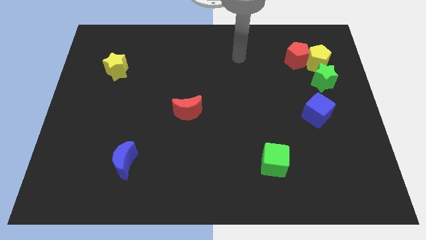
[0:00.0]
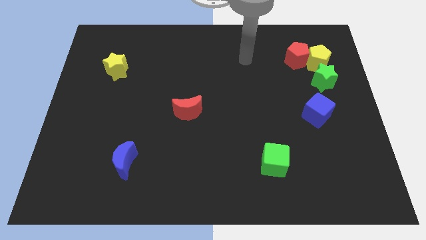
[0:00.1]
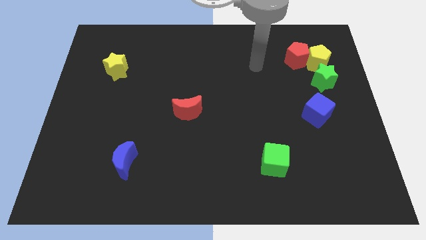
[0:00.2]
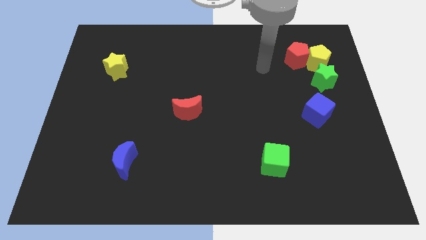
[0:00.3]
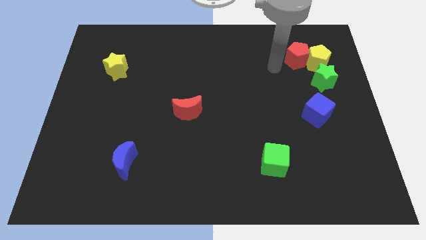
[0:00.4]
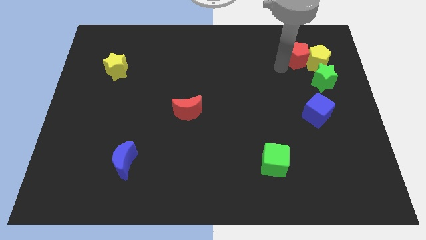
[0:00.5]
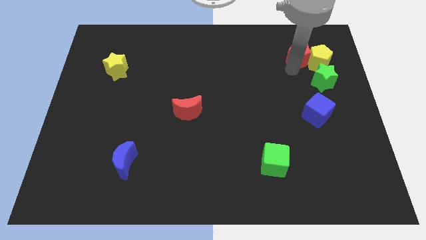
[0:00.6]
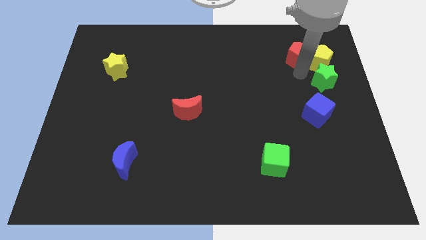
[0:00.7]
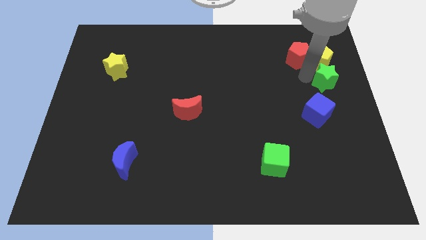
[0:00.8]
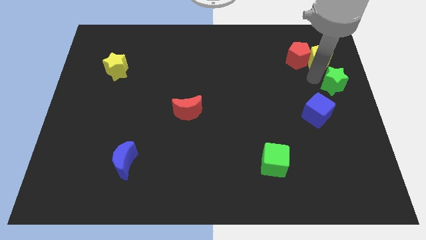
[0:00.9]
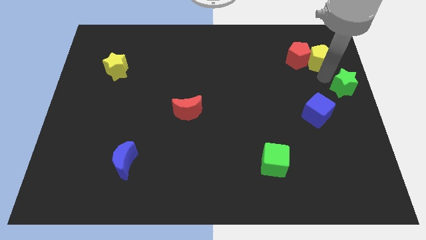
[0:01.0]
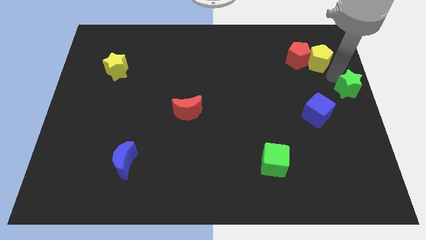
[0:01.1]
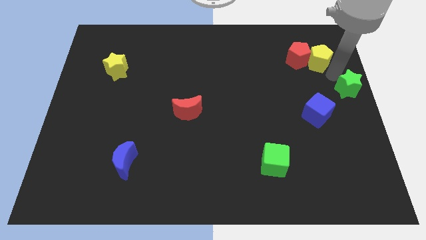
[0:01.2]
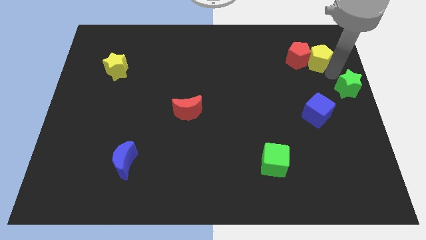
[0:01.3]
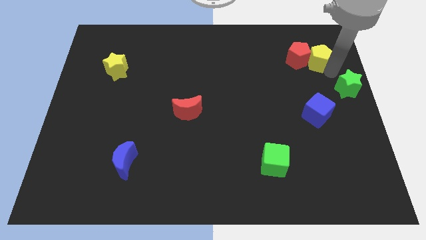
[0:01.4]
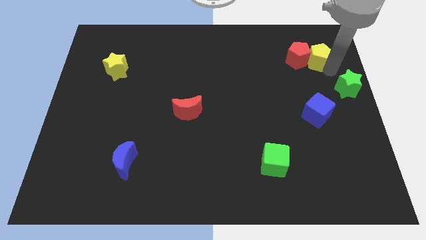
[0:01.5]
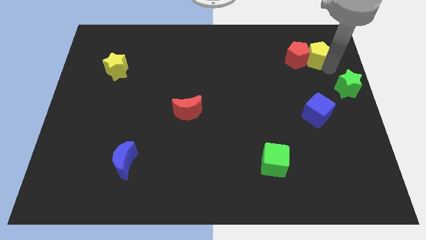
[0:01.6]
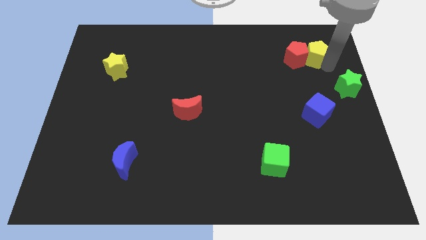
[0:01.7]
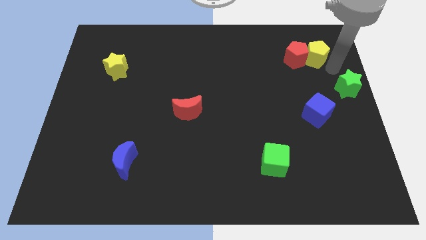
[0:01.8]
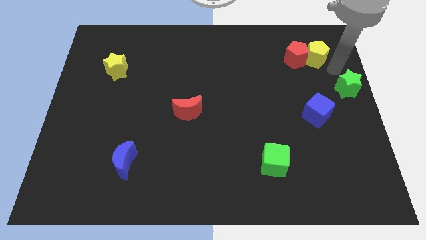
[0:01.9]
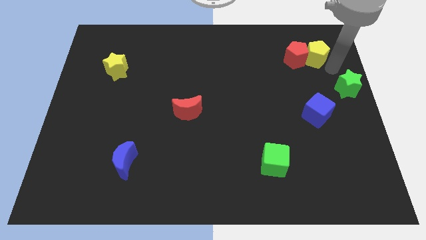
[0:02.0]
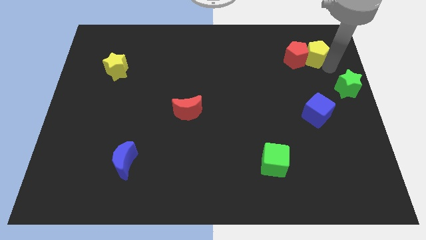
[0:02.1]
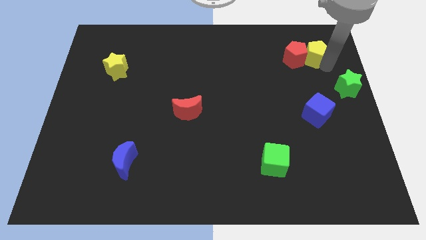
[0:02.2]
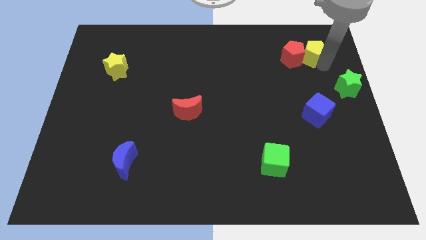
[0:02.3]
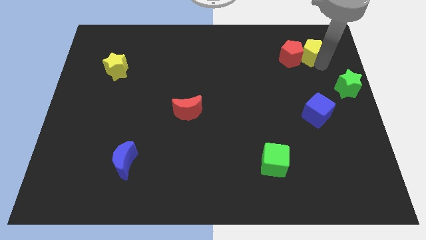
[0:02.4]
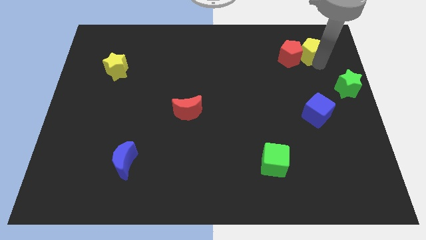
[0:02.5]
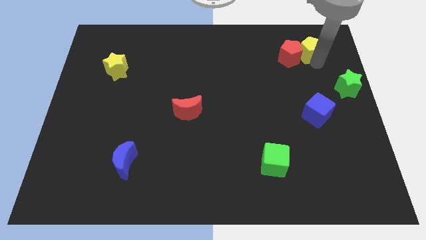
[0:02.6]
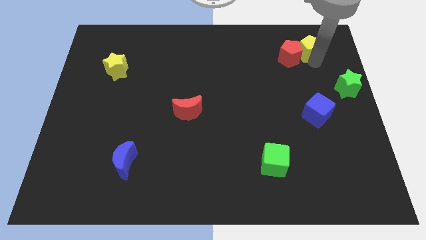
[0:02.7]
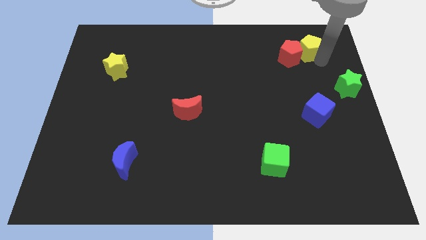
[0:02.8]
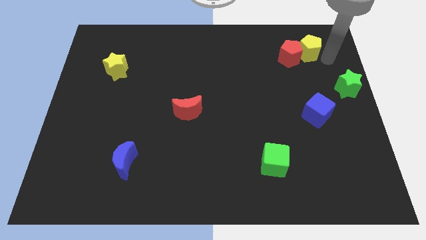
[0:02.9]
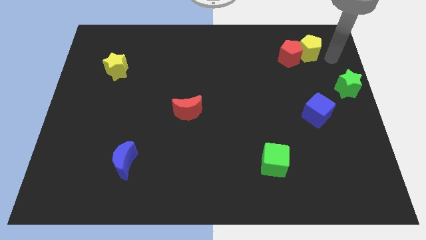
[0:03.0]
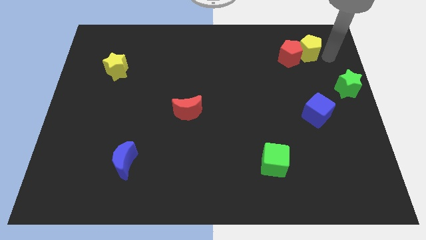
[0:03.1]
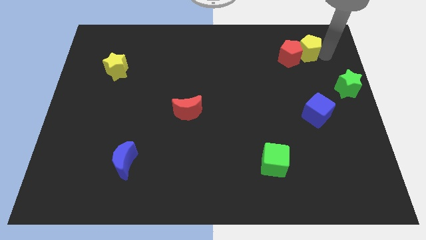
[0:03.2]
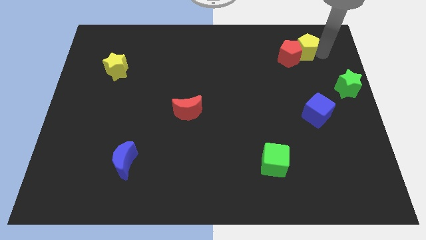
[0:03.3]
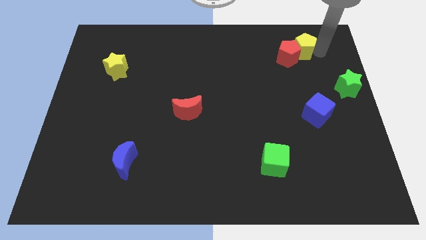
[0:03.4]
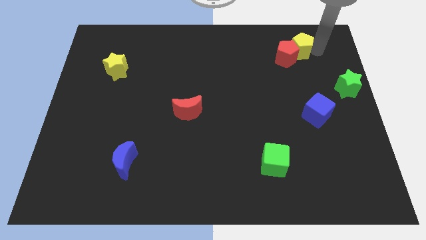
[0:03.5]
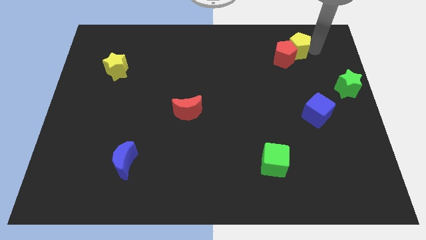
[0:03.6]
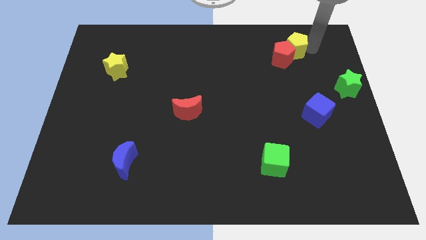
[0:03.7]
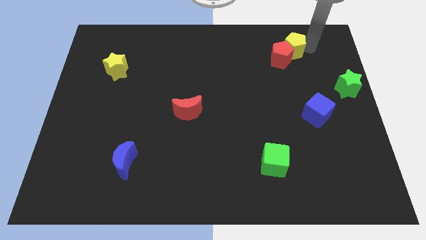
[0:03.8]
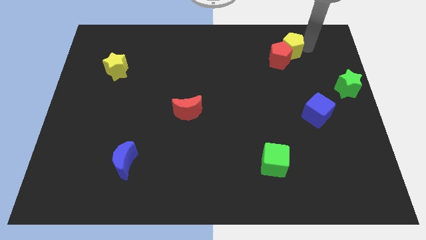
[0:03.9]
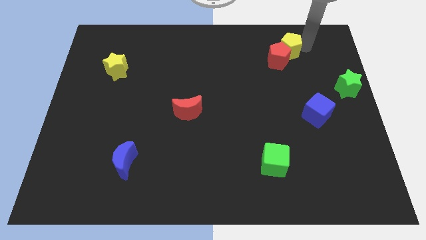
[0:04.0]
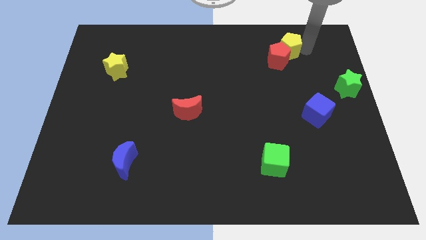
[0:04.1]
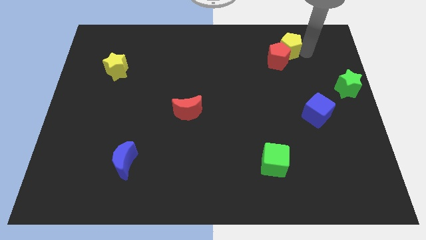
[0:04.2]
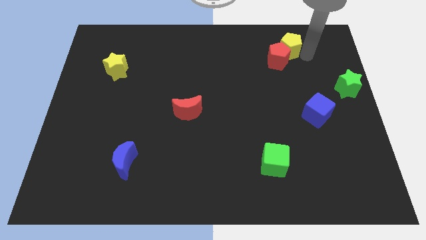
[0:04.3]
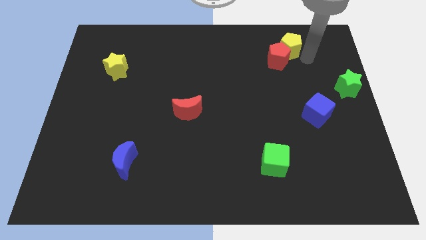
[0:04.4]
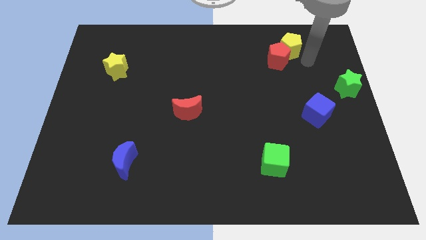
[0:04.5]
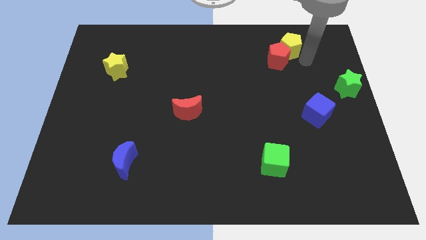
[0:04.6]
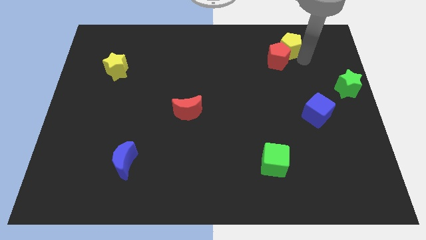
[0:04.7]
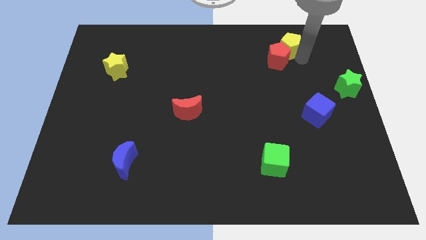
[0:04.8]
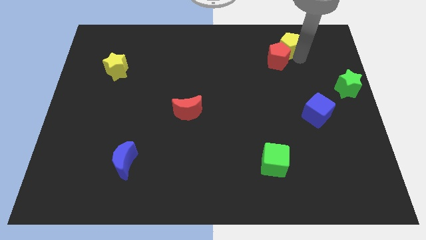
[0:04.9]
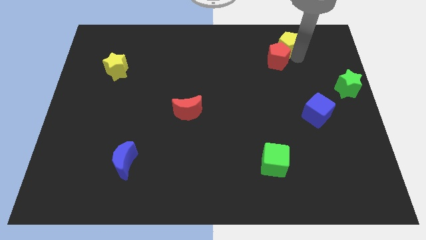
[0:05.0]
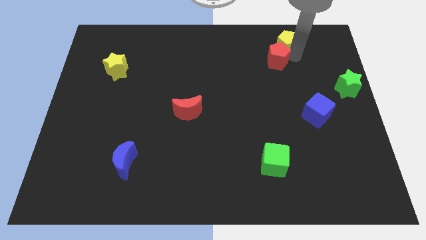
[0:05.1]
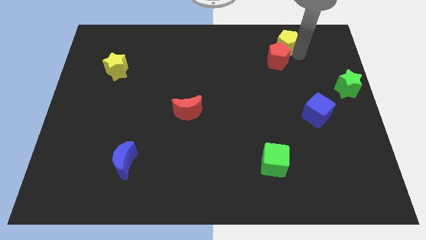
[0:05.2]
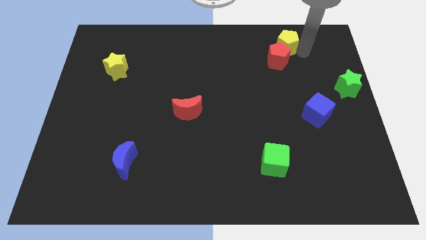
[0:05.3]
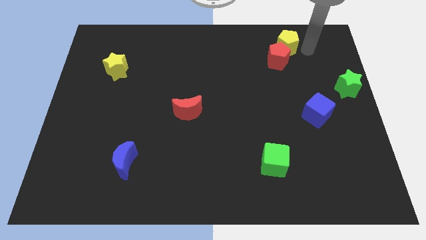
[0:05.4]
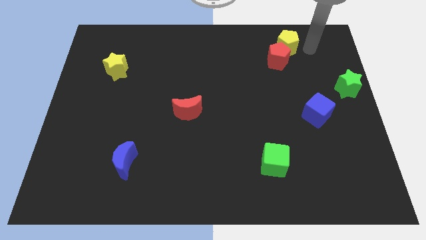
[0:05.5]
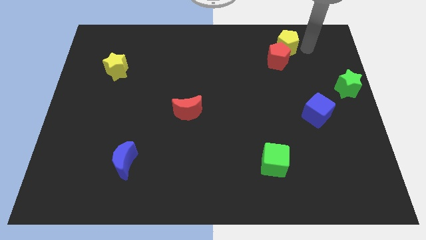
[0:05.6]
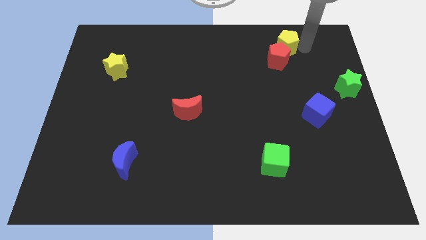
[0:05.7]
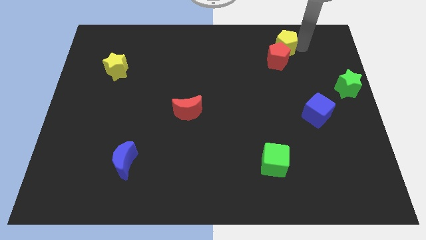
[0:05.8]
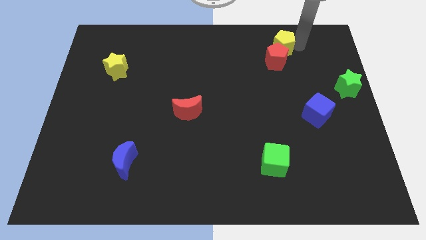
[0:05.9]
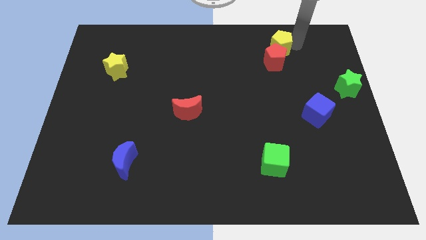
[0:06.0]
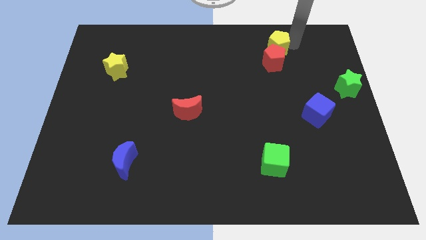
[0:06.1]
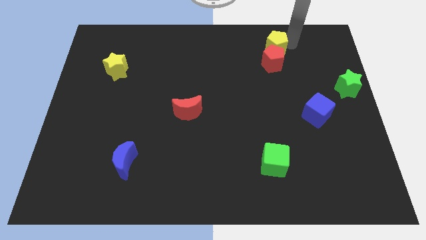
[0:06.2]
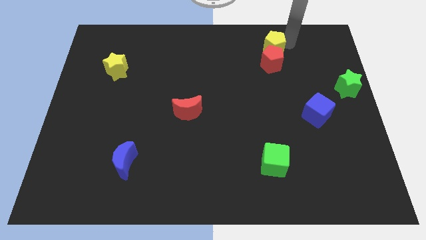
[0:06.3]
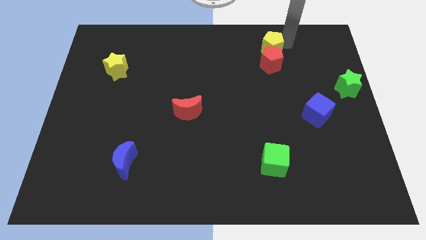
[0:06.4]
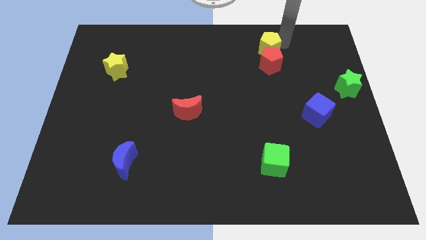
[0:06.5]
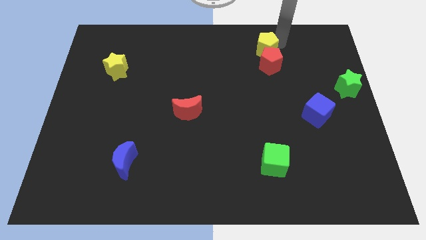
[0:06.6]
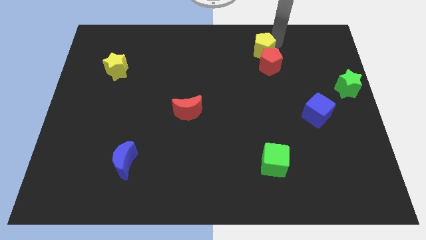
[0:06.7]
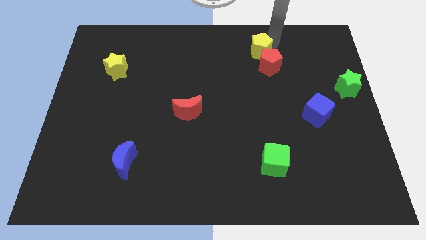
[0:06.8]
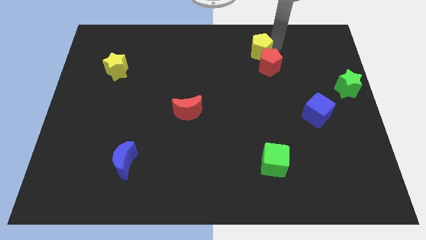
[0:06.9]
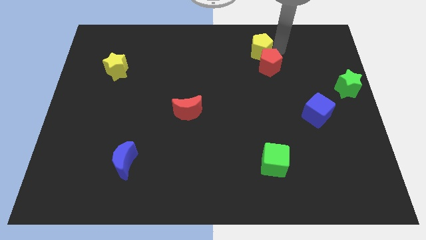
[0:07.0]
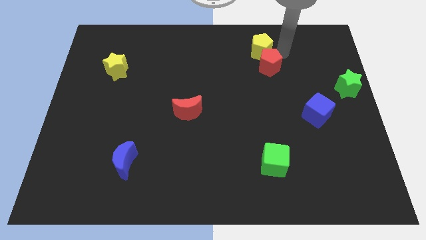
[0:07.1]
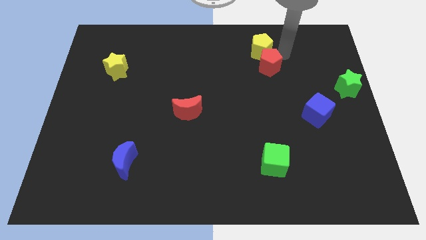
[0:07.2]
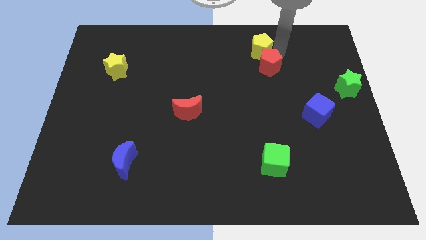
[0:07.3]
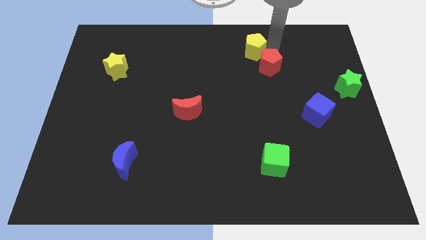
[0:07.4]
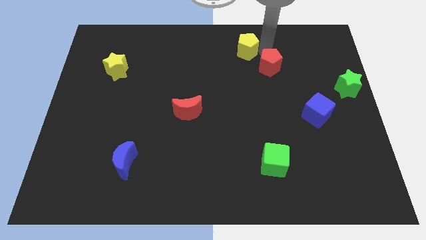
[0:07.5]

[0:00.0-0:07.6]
push the yellow pentagon to the towards your base
